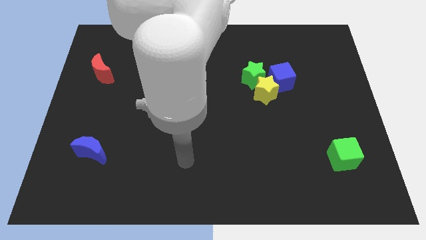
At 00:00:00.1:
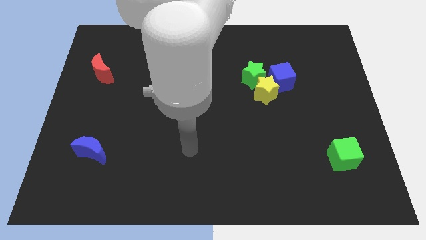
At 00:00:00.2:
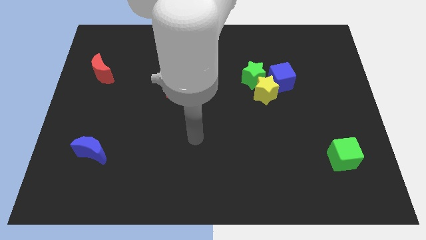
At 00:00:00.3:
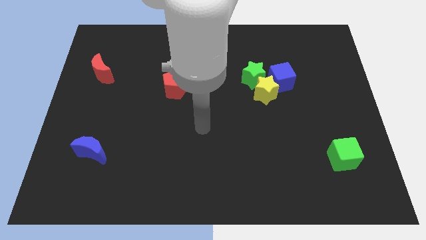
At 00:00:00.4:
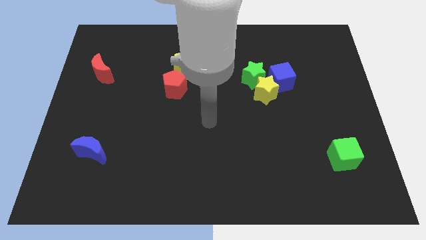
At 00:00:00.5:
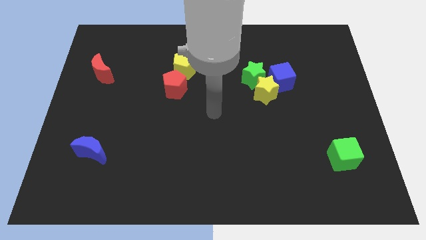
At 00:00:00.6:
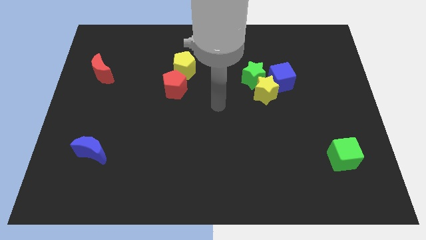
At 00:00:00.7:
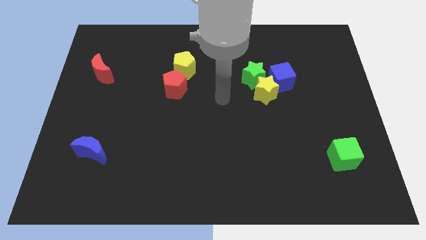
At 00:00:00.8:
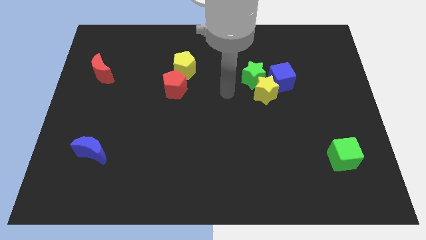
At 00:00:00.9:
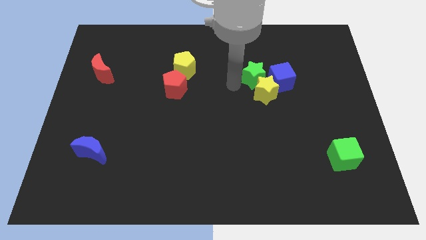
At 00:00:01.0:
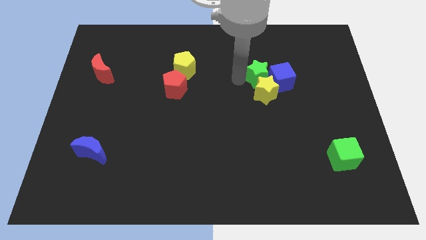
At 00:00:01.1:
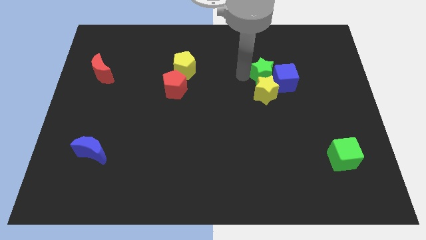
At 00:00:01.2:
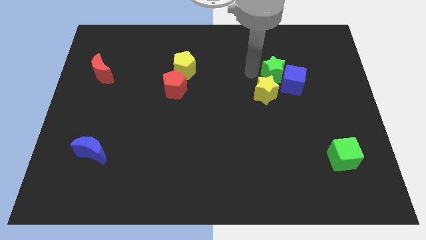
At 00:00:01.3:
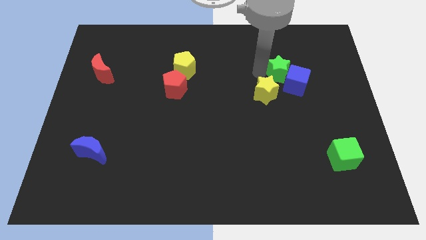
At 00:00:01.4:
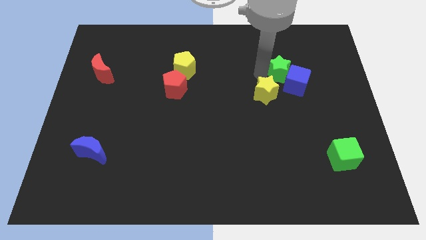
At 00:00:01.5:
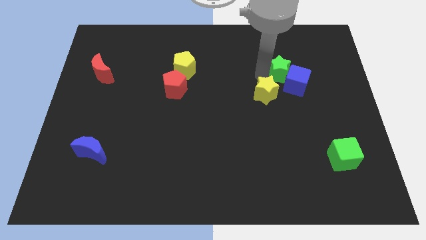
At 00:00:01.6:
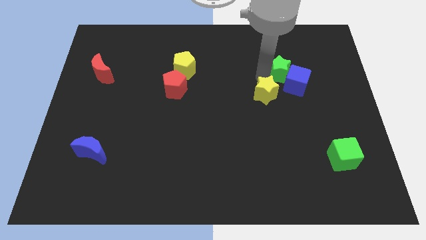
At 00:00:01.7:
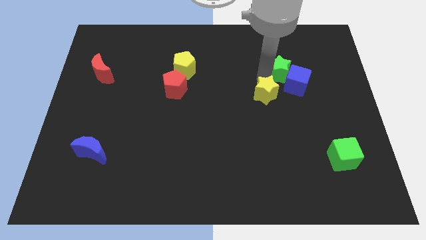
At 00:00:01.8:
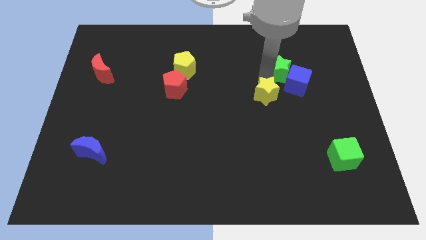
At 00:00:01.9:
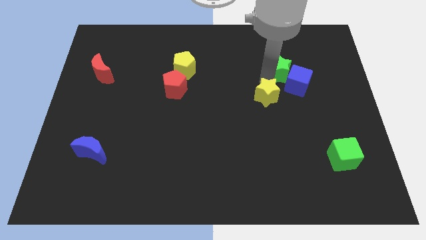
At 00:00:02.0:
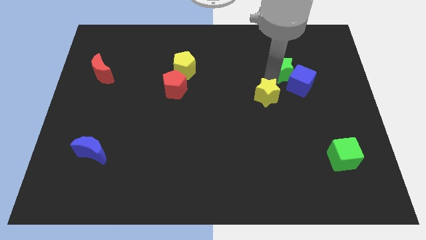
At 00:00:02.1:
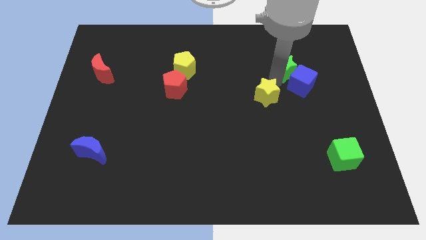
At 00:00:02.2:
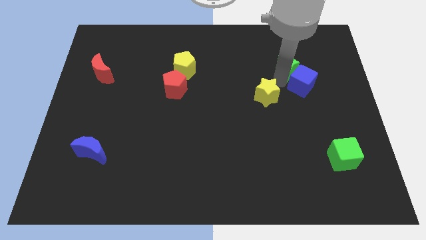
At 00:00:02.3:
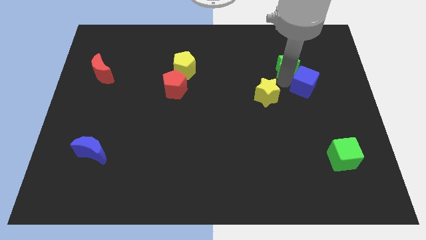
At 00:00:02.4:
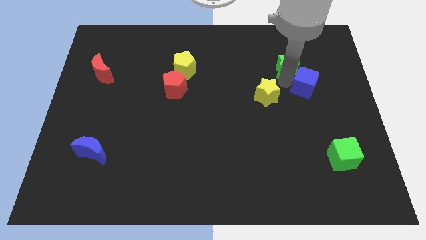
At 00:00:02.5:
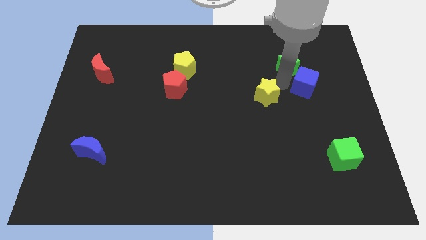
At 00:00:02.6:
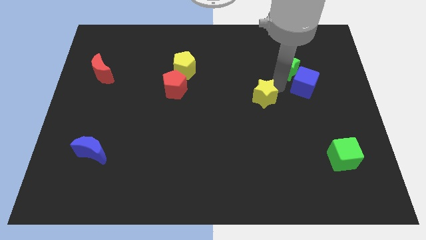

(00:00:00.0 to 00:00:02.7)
separate the yellow star from the green star and blue cube

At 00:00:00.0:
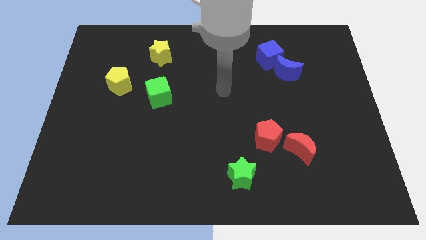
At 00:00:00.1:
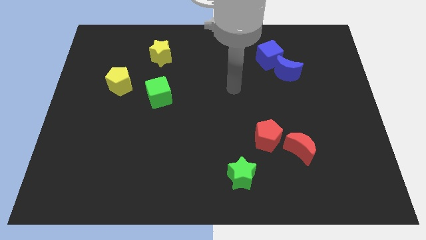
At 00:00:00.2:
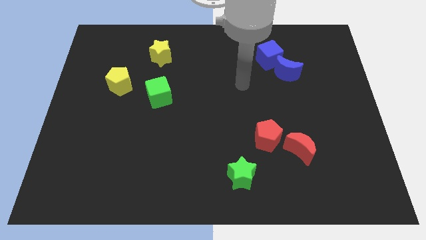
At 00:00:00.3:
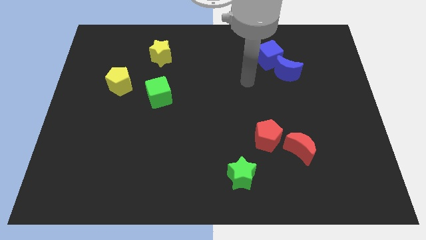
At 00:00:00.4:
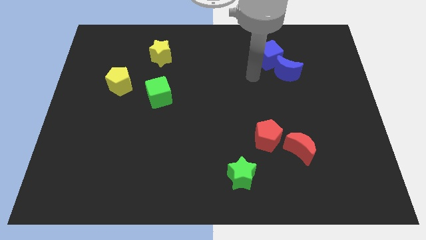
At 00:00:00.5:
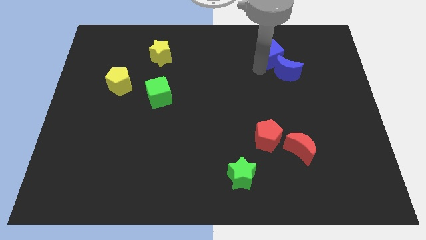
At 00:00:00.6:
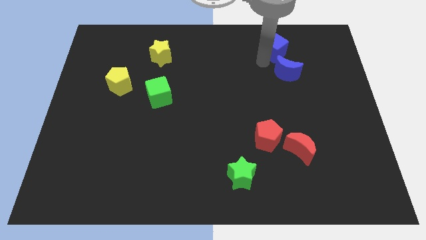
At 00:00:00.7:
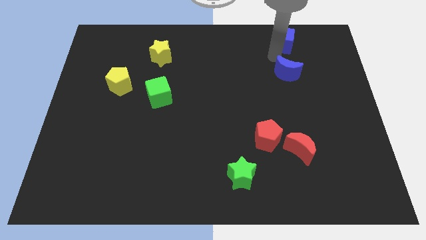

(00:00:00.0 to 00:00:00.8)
move the blue moon away from the blue cube

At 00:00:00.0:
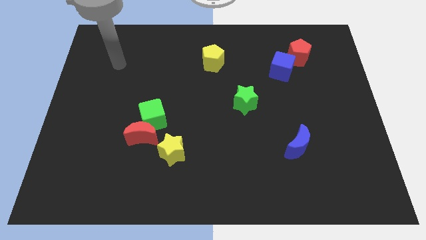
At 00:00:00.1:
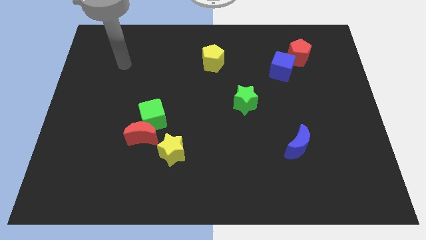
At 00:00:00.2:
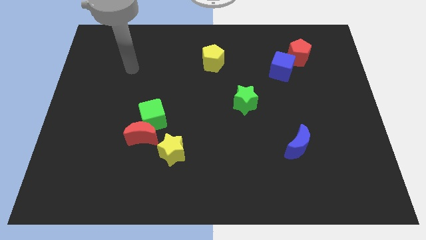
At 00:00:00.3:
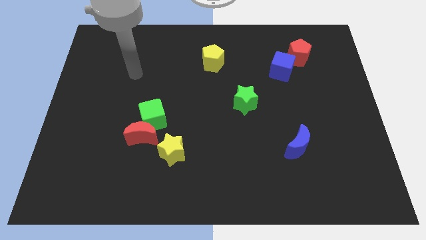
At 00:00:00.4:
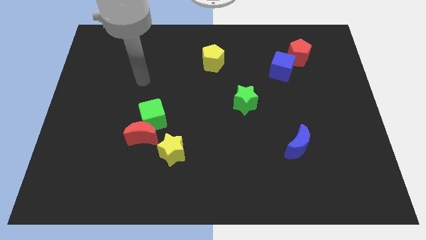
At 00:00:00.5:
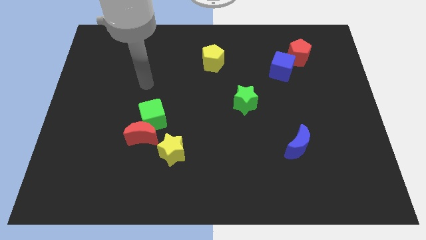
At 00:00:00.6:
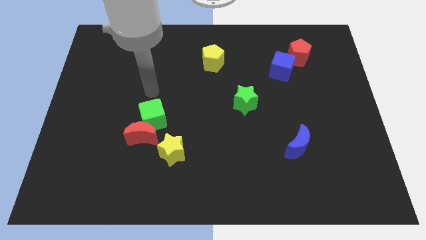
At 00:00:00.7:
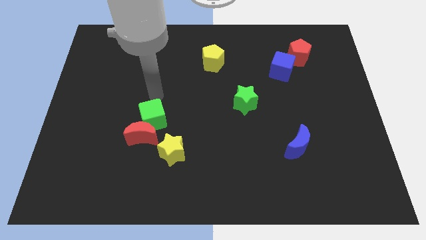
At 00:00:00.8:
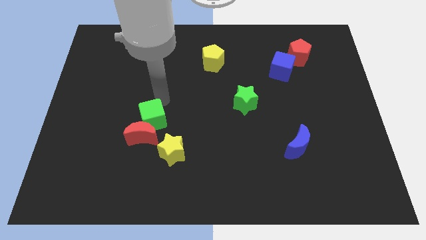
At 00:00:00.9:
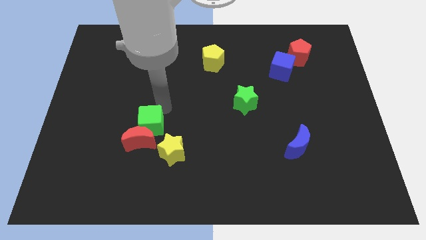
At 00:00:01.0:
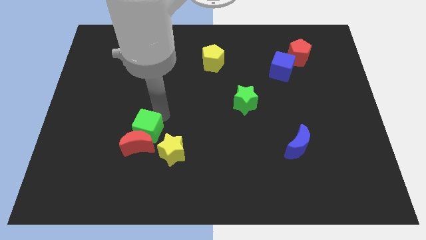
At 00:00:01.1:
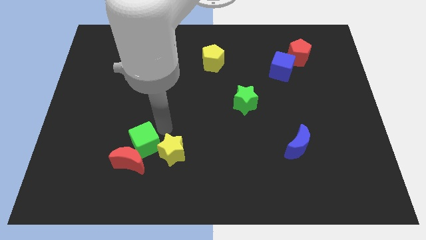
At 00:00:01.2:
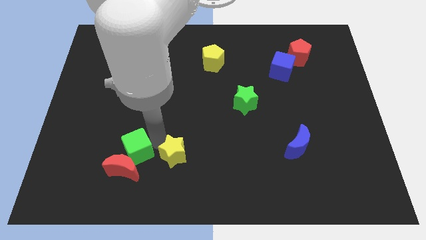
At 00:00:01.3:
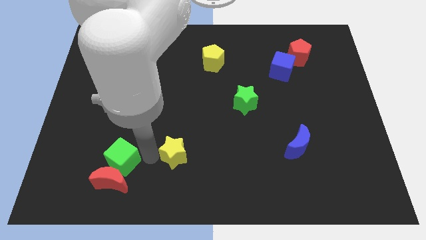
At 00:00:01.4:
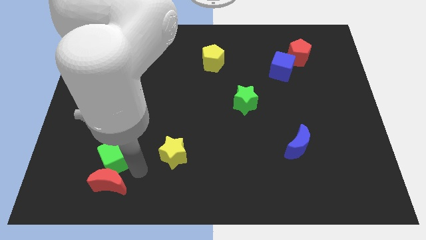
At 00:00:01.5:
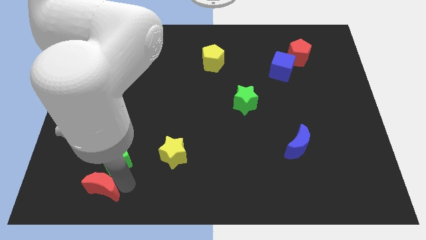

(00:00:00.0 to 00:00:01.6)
separate the red moon from the green cube and yellow star

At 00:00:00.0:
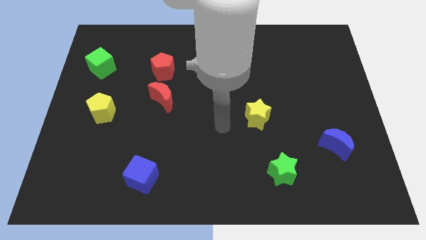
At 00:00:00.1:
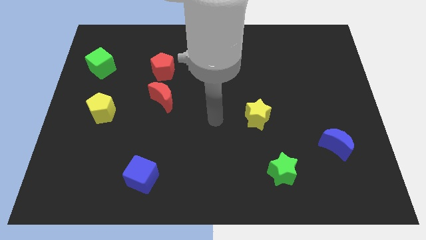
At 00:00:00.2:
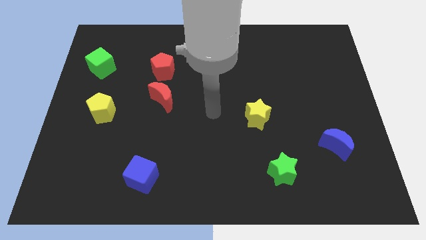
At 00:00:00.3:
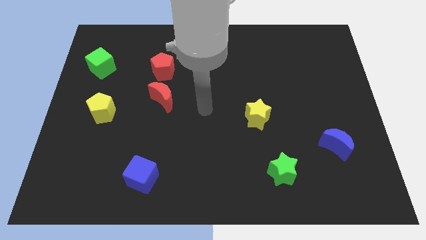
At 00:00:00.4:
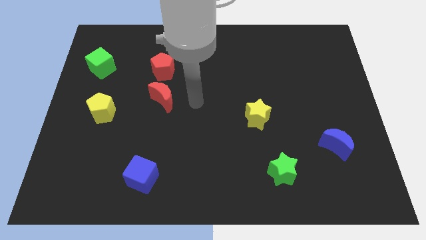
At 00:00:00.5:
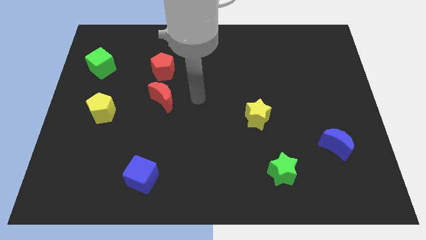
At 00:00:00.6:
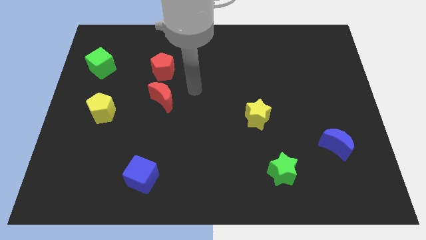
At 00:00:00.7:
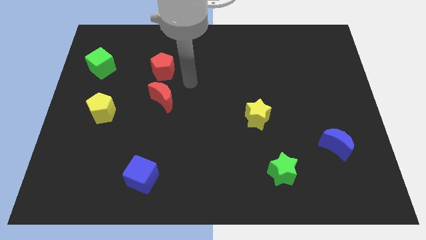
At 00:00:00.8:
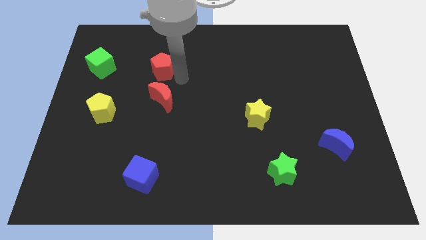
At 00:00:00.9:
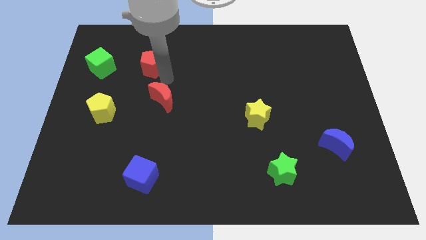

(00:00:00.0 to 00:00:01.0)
move the red moon away from the red pentagon

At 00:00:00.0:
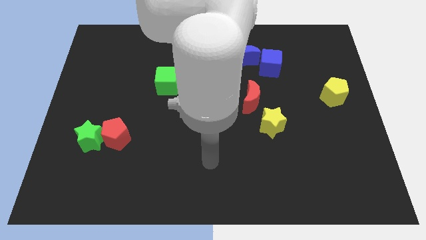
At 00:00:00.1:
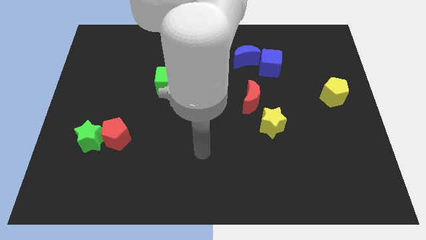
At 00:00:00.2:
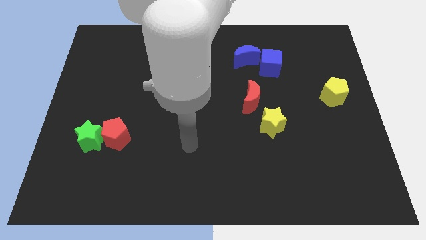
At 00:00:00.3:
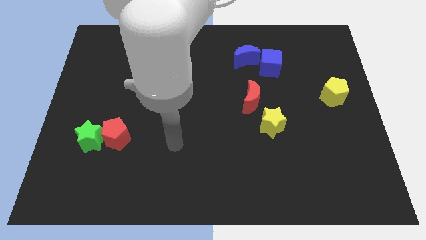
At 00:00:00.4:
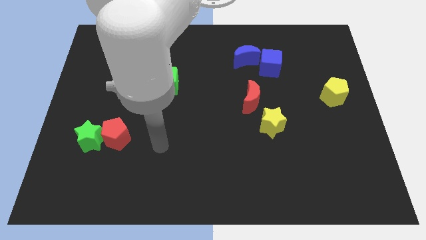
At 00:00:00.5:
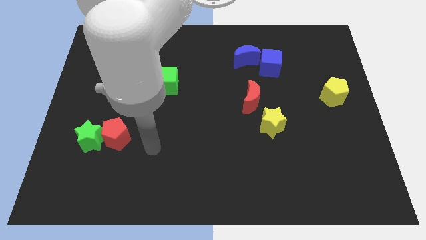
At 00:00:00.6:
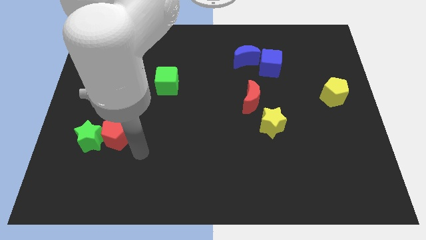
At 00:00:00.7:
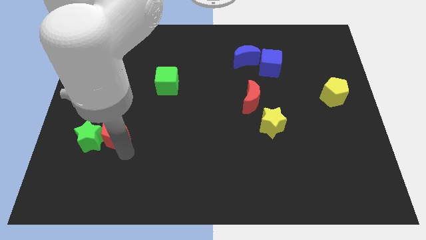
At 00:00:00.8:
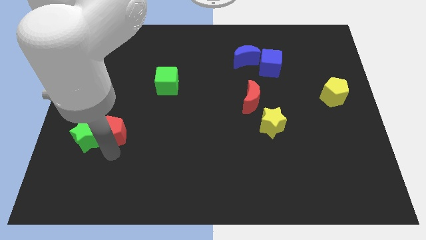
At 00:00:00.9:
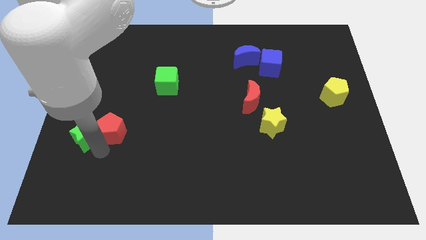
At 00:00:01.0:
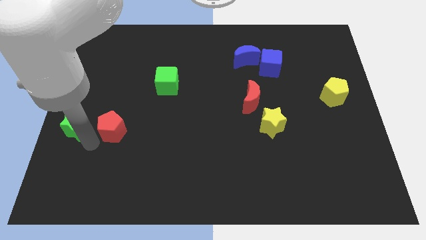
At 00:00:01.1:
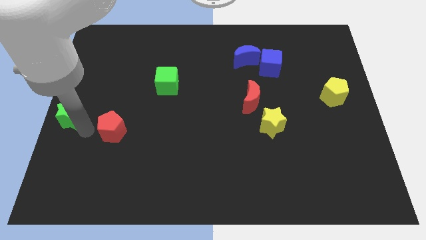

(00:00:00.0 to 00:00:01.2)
move the red pentagon away from the green star

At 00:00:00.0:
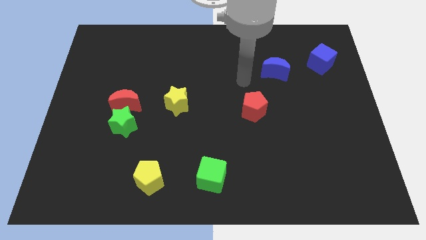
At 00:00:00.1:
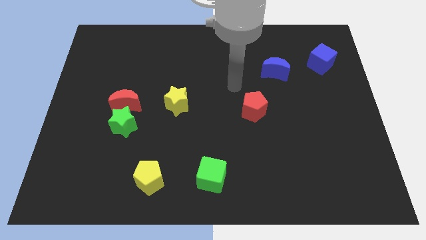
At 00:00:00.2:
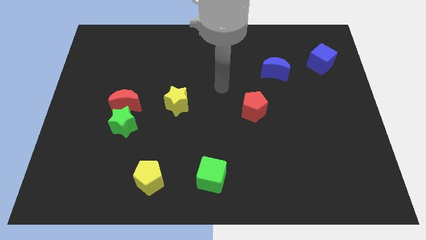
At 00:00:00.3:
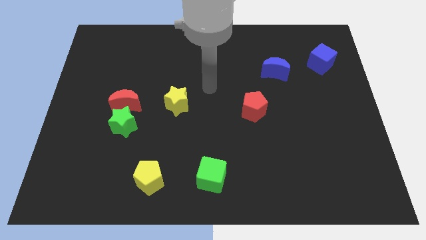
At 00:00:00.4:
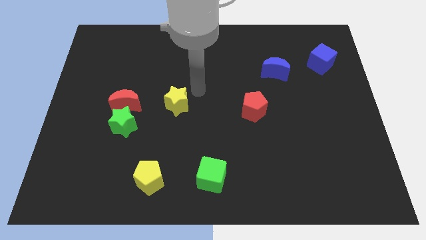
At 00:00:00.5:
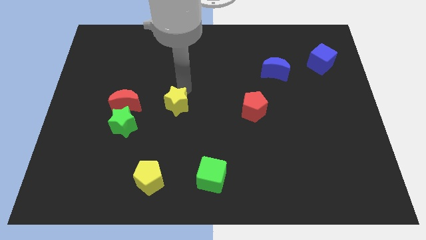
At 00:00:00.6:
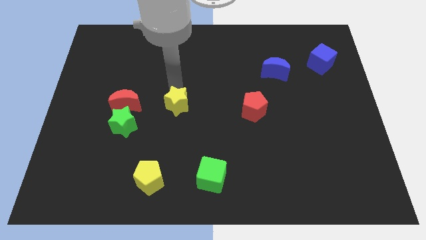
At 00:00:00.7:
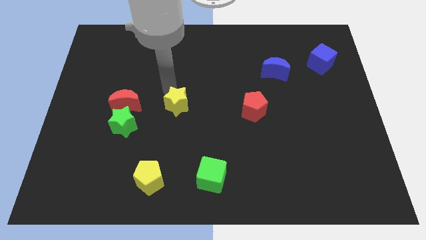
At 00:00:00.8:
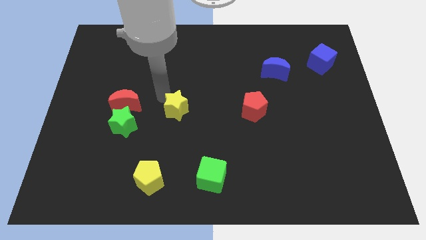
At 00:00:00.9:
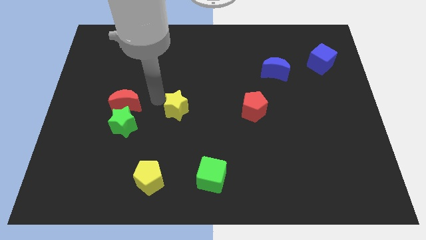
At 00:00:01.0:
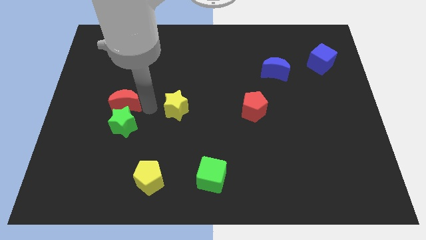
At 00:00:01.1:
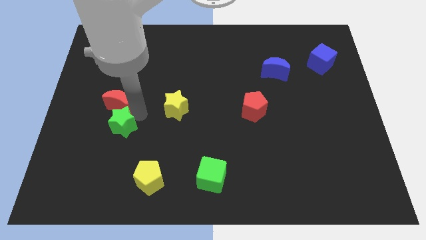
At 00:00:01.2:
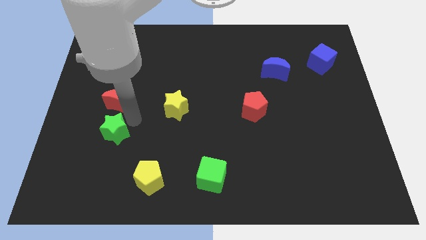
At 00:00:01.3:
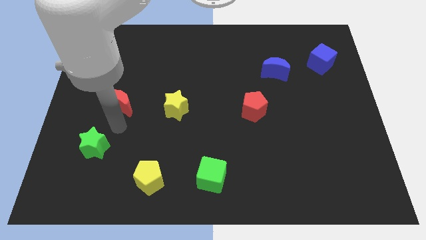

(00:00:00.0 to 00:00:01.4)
move the red moon away from the green star

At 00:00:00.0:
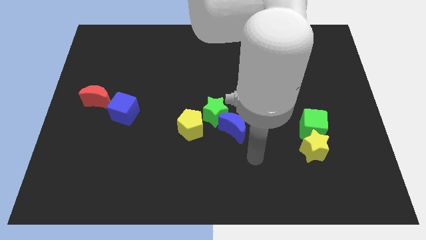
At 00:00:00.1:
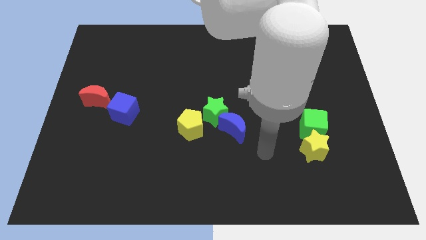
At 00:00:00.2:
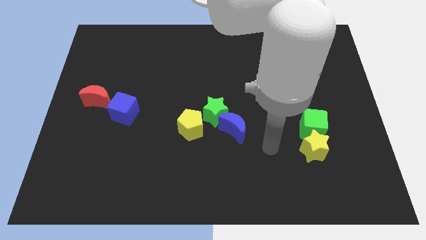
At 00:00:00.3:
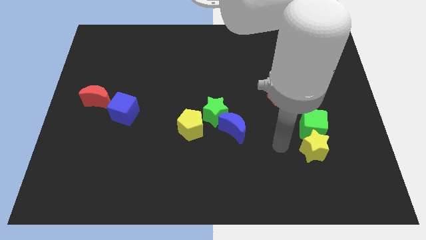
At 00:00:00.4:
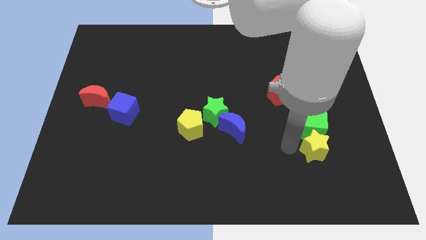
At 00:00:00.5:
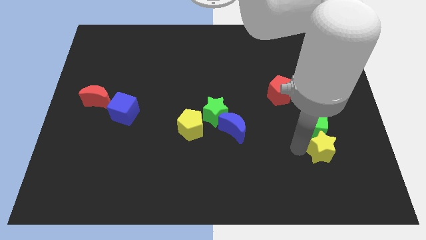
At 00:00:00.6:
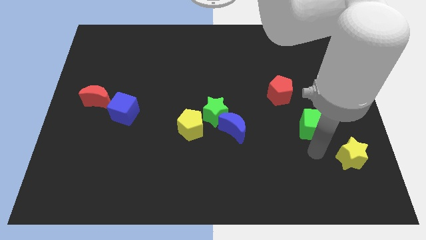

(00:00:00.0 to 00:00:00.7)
pull the green cube apart from the yellow star
